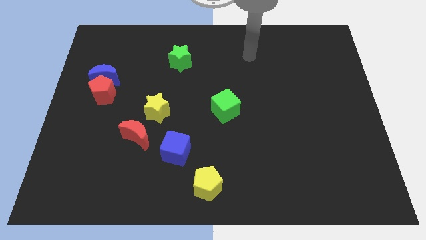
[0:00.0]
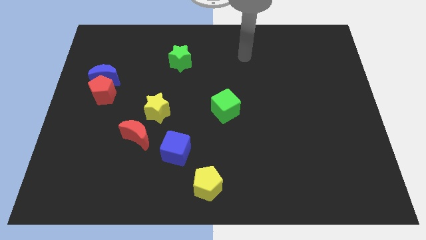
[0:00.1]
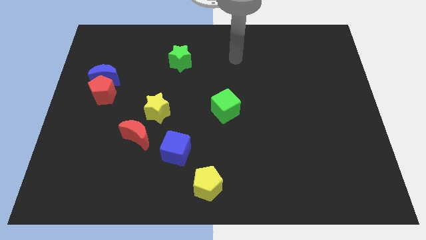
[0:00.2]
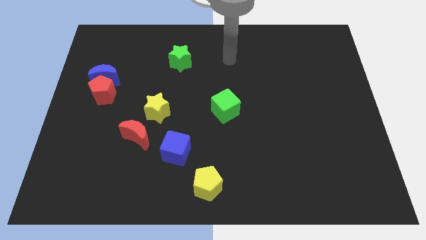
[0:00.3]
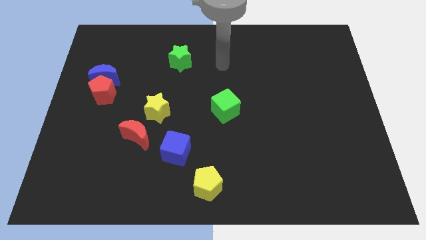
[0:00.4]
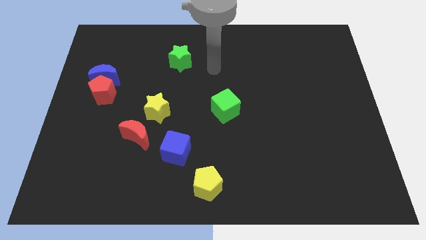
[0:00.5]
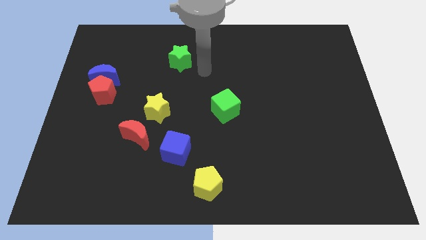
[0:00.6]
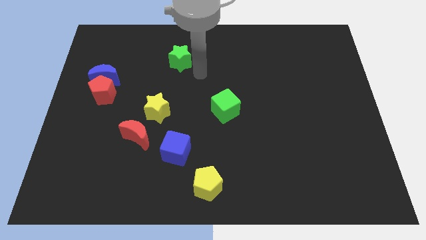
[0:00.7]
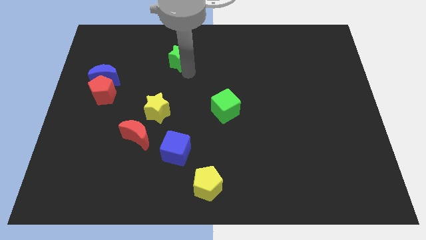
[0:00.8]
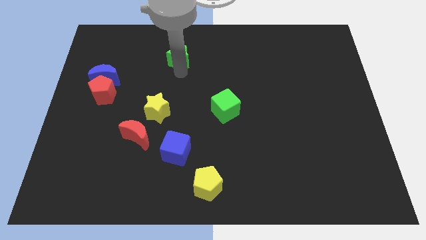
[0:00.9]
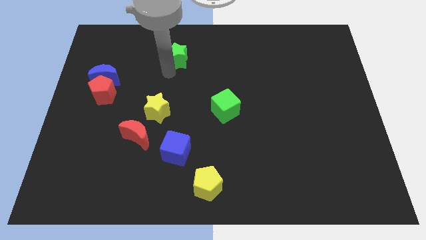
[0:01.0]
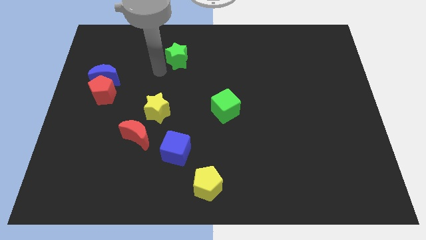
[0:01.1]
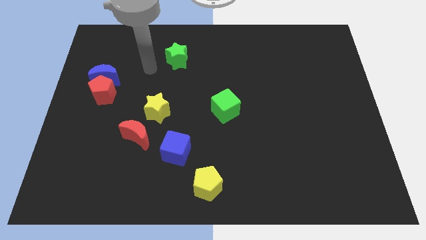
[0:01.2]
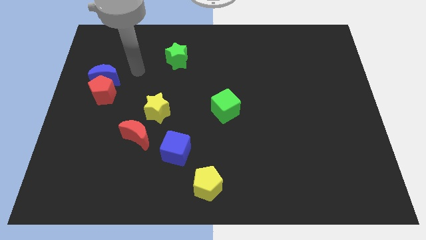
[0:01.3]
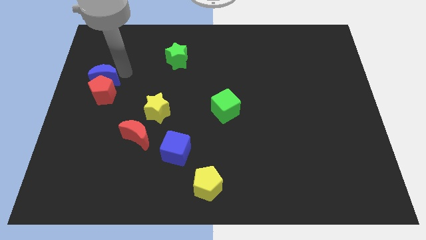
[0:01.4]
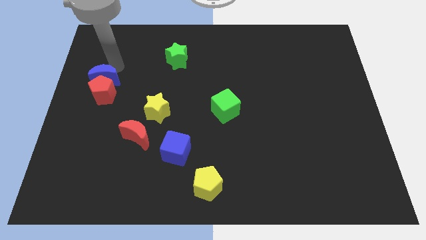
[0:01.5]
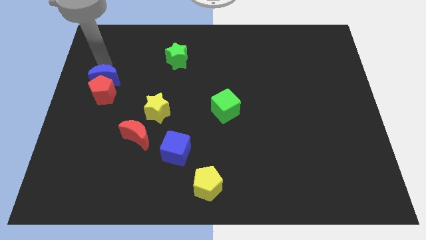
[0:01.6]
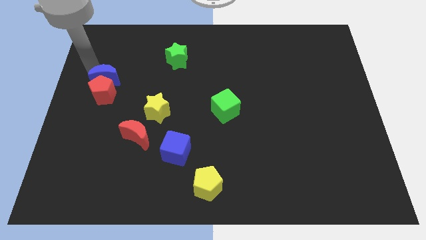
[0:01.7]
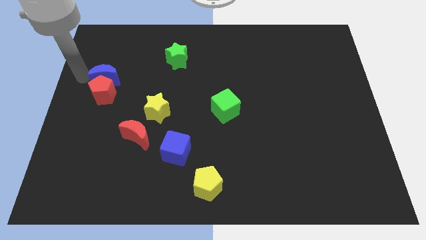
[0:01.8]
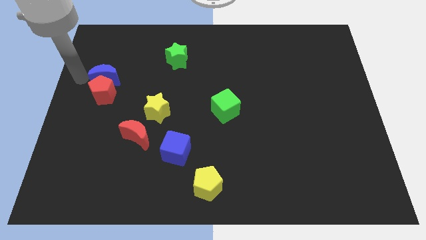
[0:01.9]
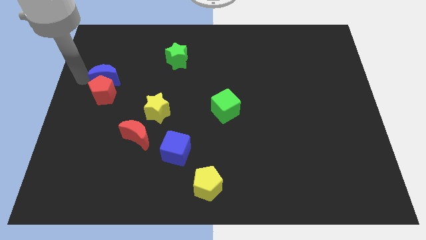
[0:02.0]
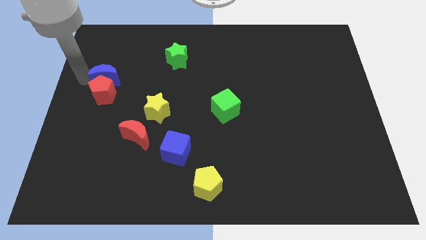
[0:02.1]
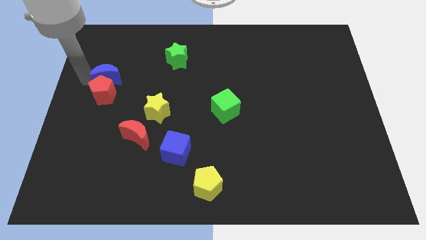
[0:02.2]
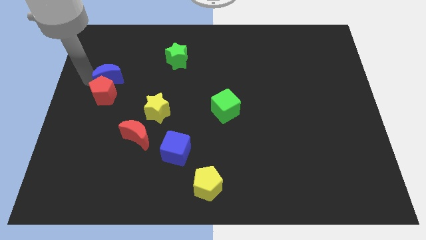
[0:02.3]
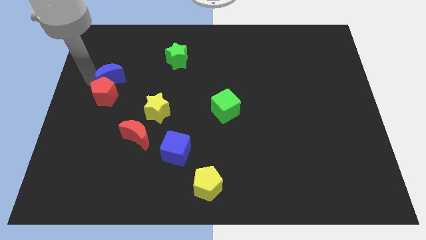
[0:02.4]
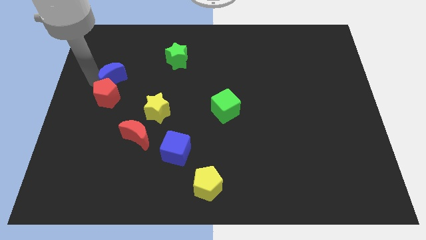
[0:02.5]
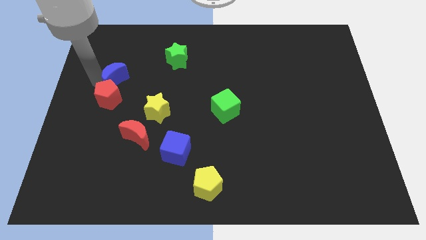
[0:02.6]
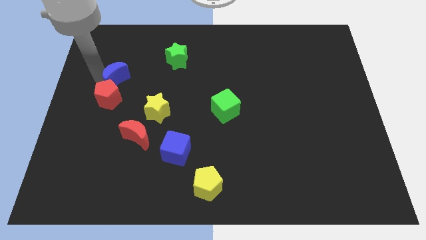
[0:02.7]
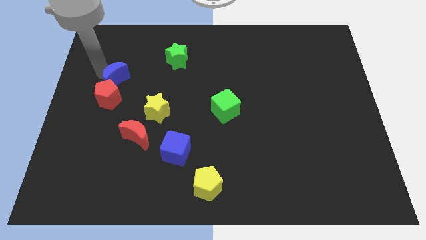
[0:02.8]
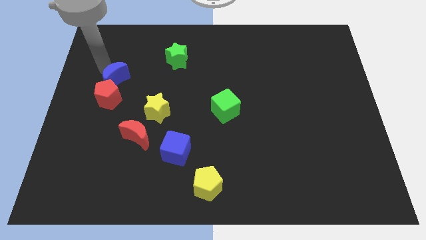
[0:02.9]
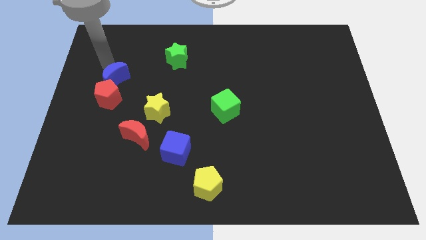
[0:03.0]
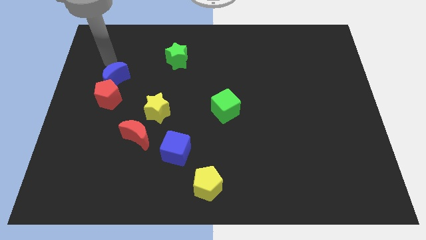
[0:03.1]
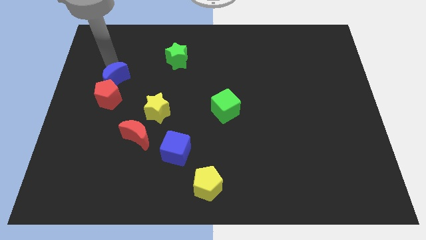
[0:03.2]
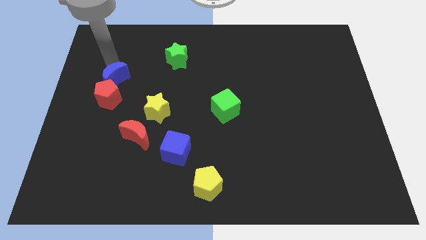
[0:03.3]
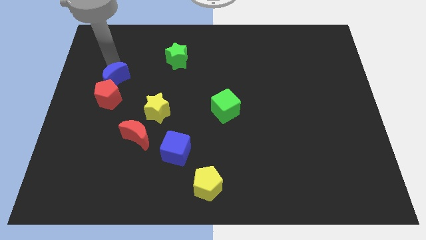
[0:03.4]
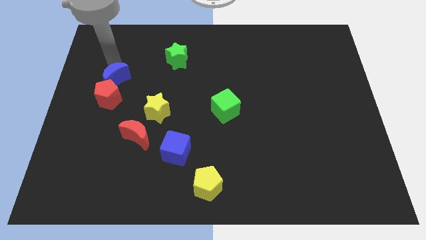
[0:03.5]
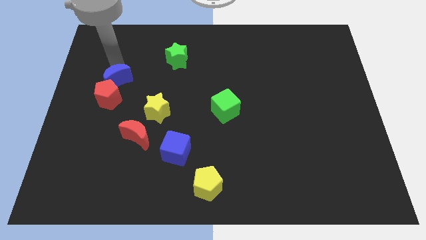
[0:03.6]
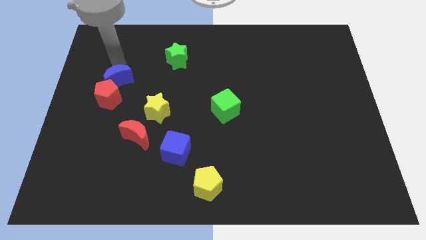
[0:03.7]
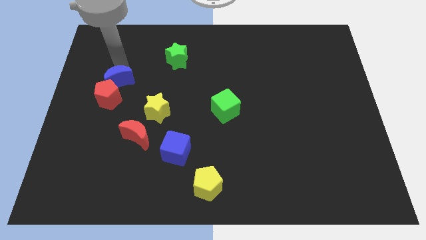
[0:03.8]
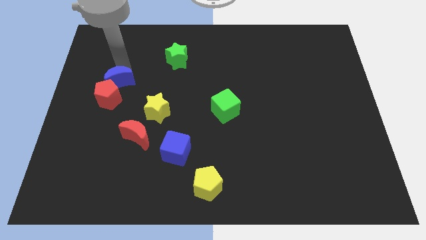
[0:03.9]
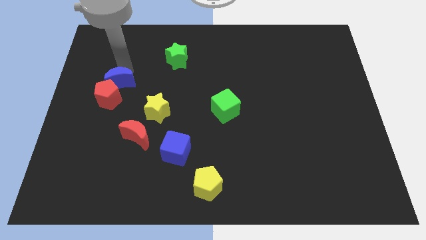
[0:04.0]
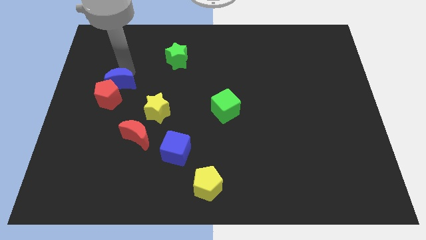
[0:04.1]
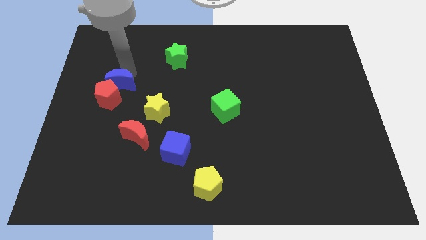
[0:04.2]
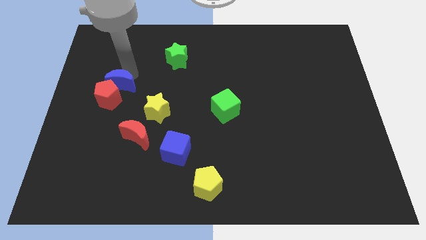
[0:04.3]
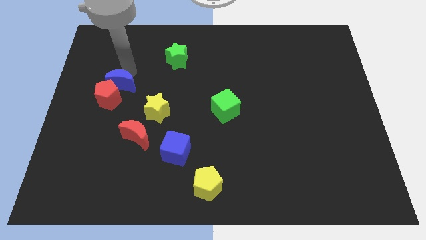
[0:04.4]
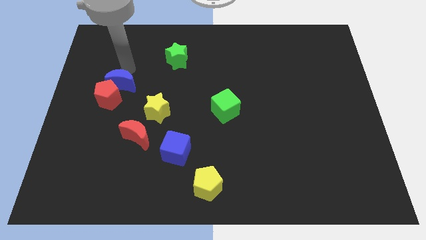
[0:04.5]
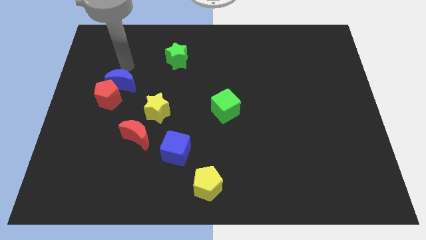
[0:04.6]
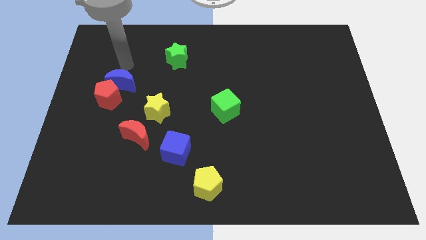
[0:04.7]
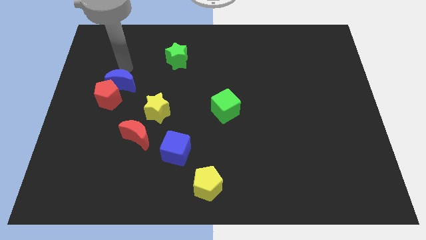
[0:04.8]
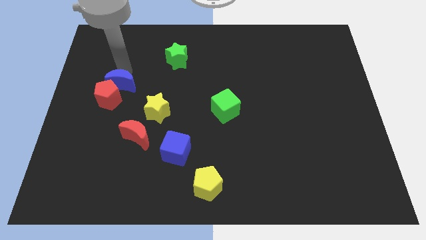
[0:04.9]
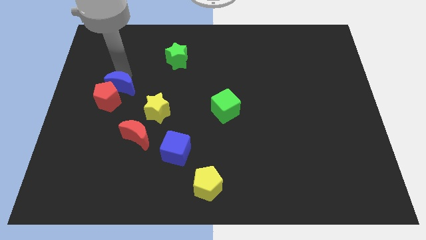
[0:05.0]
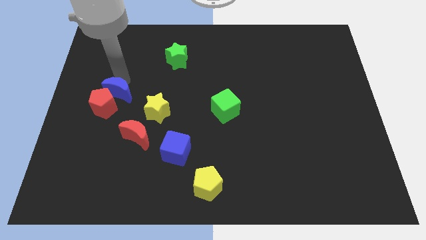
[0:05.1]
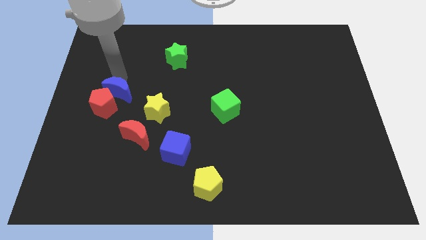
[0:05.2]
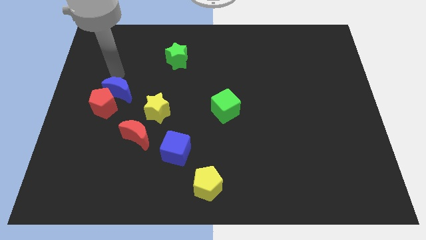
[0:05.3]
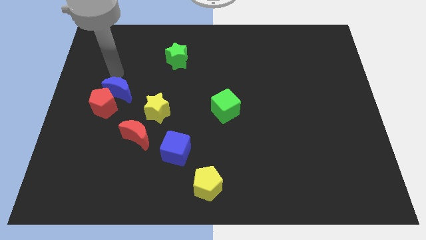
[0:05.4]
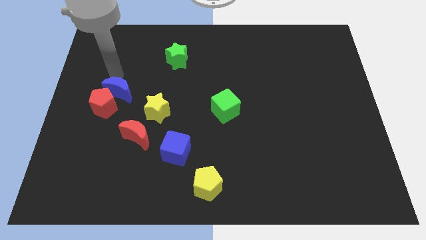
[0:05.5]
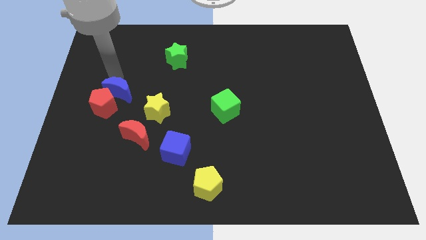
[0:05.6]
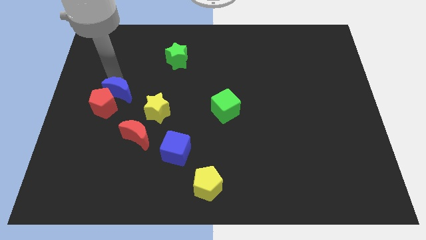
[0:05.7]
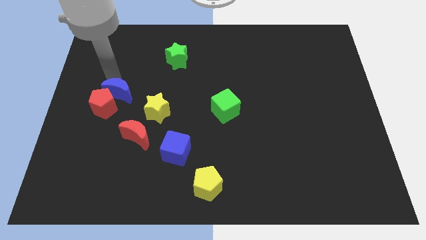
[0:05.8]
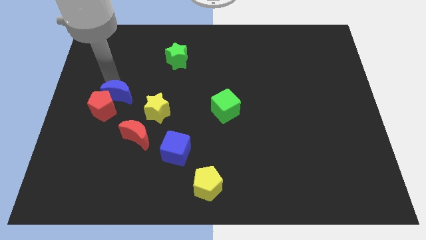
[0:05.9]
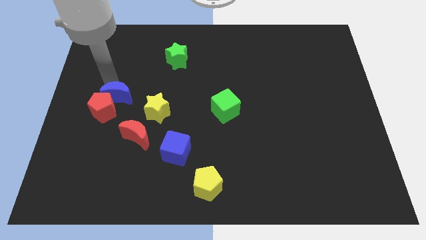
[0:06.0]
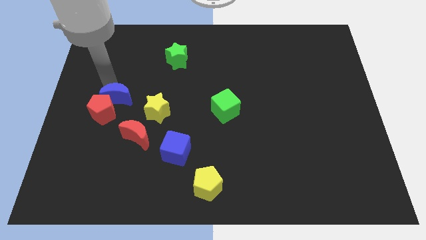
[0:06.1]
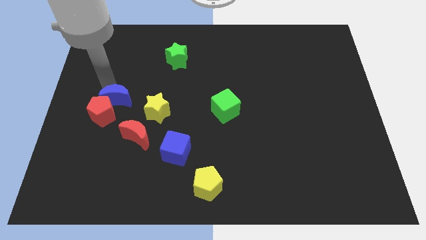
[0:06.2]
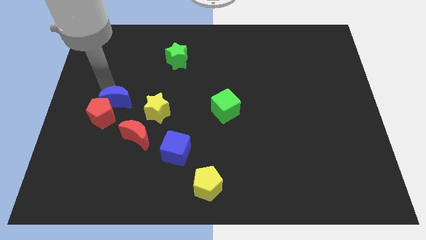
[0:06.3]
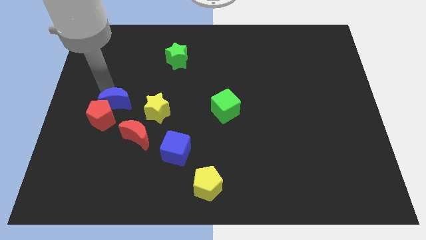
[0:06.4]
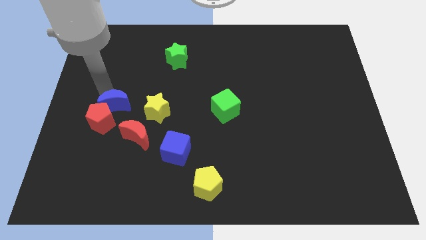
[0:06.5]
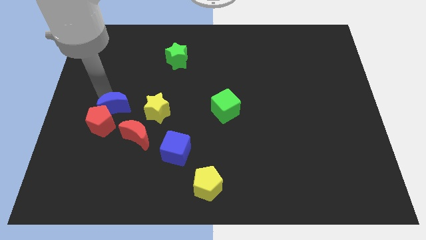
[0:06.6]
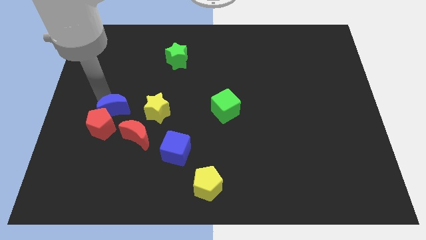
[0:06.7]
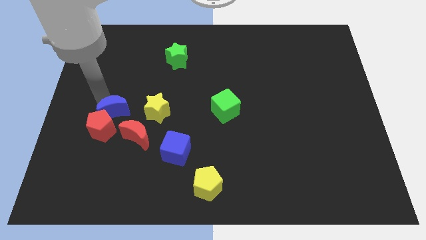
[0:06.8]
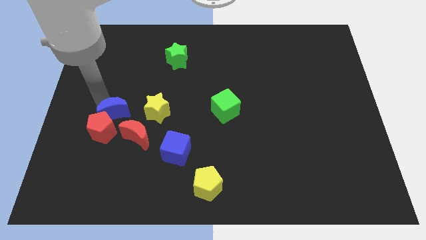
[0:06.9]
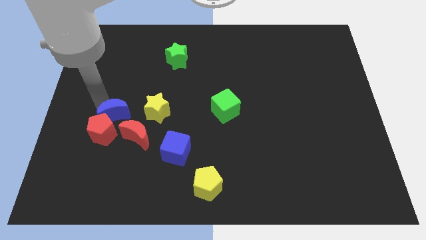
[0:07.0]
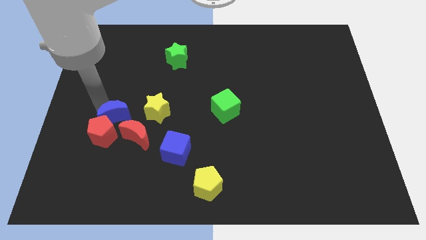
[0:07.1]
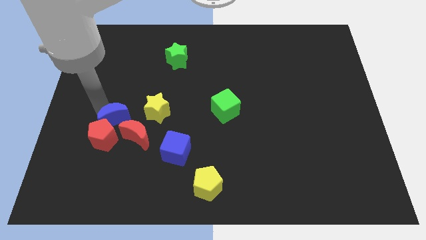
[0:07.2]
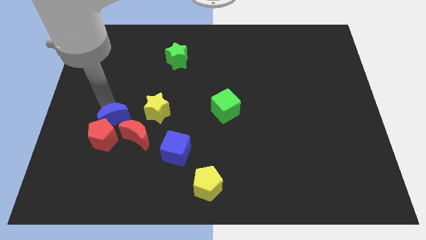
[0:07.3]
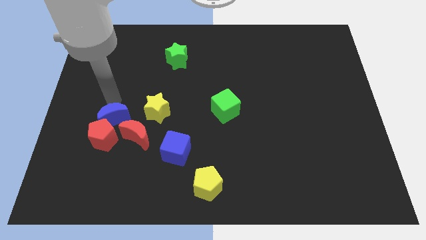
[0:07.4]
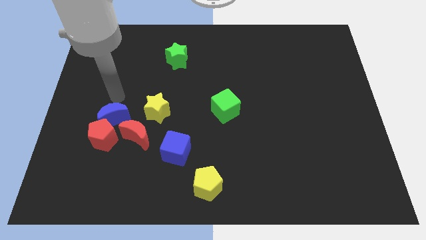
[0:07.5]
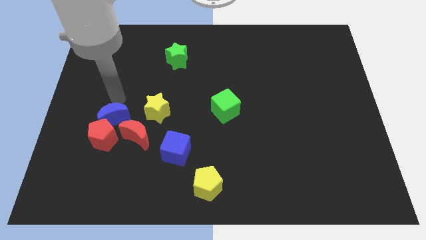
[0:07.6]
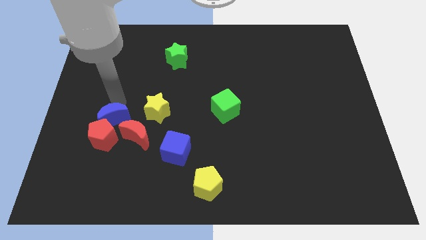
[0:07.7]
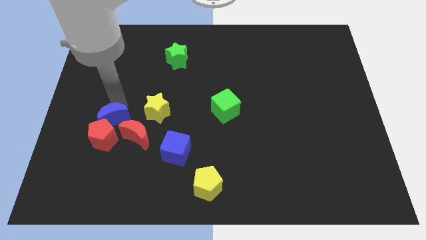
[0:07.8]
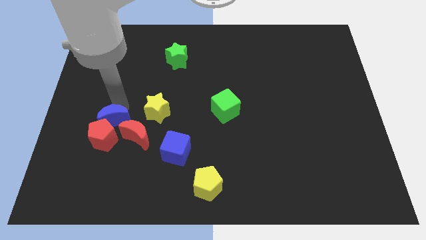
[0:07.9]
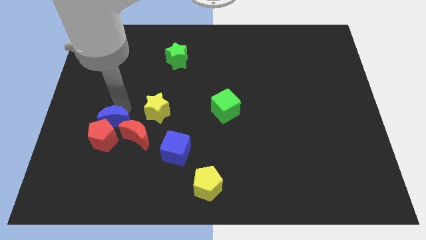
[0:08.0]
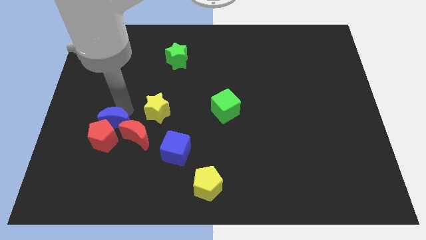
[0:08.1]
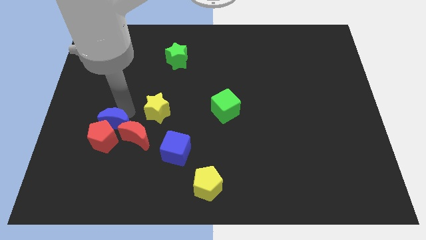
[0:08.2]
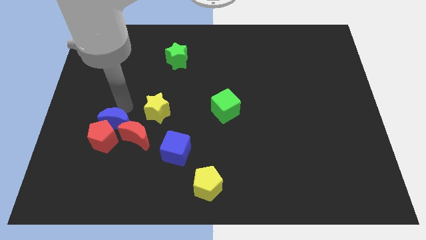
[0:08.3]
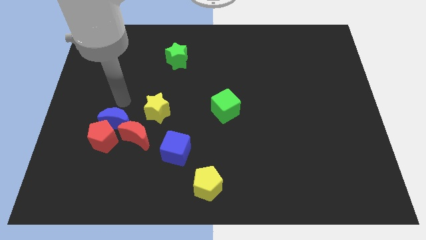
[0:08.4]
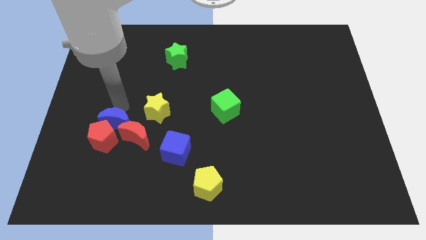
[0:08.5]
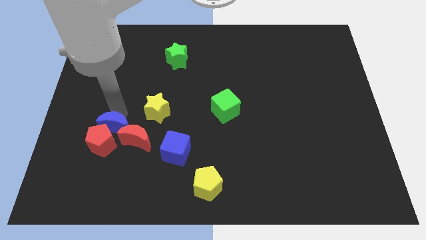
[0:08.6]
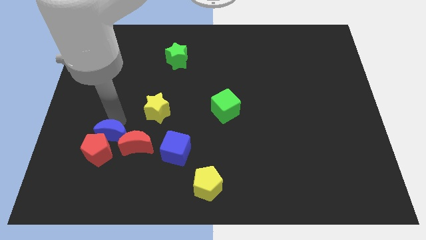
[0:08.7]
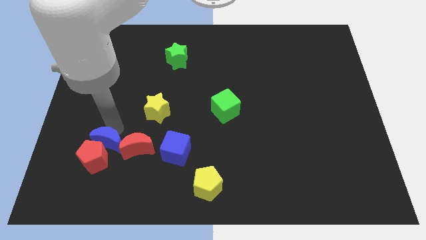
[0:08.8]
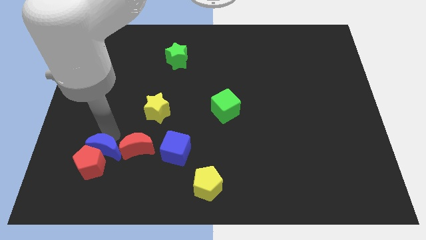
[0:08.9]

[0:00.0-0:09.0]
move the blue moon diagonally down and to the left of the red moon
